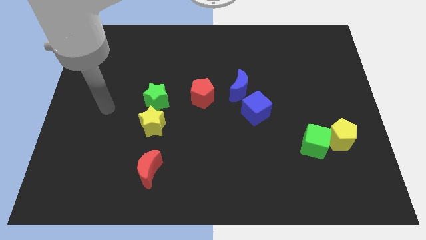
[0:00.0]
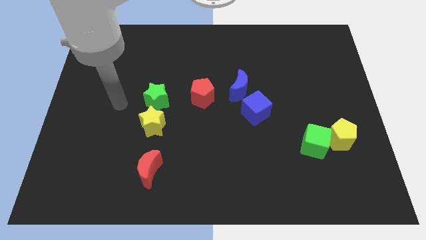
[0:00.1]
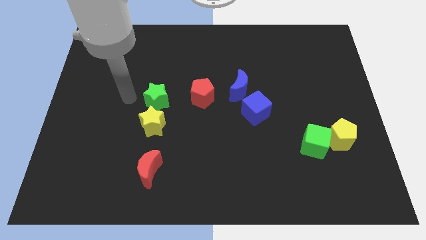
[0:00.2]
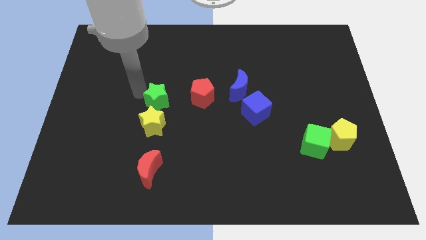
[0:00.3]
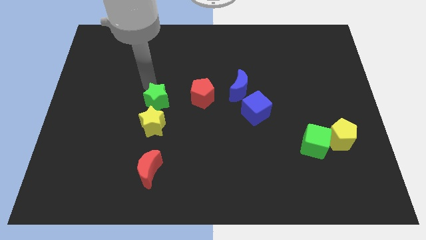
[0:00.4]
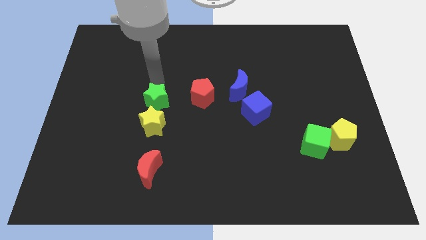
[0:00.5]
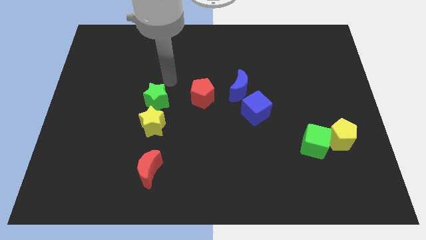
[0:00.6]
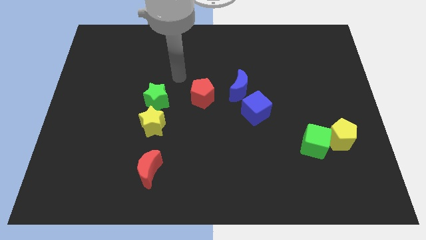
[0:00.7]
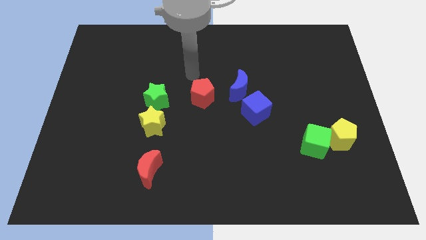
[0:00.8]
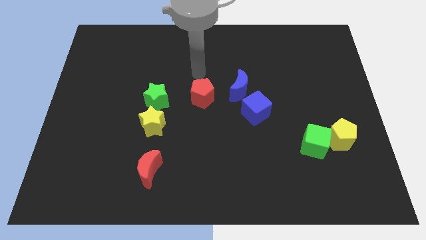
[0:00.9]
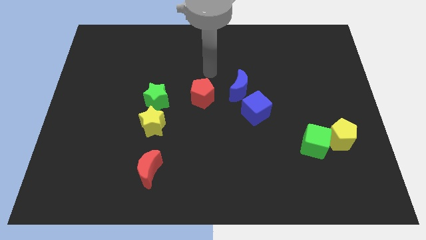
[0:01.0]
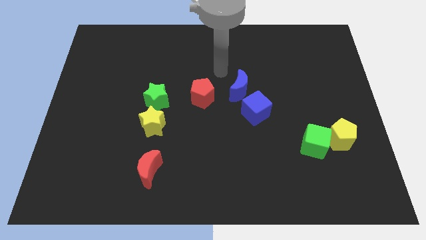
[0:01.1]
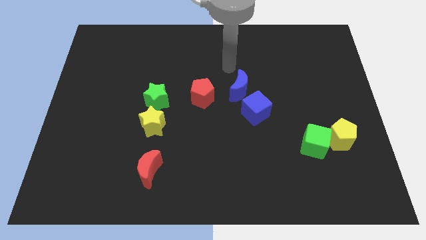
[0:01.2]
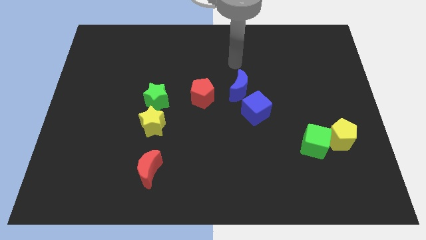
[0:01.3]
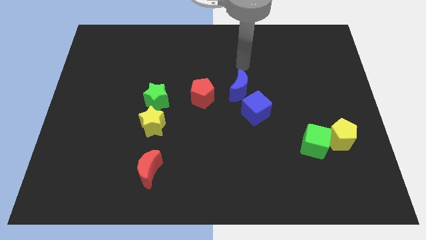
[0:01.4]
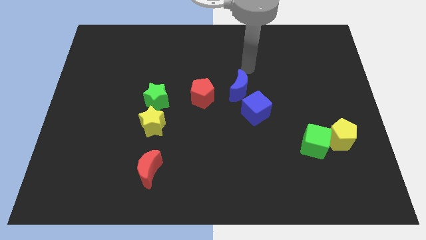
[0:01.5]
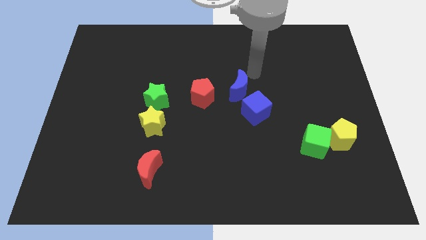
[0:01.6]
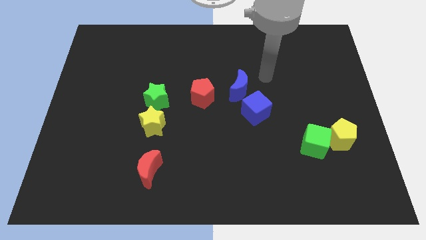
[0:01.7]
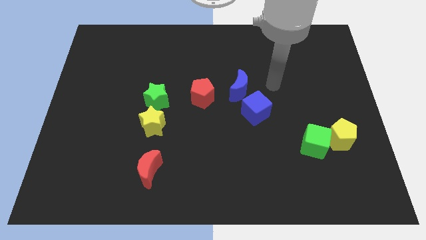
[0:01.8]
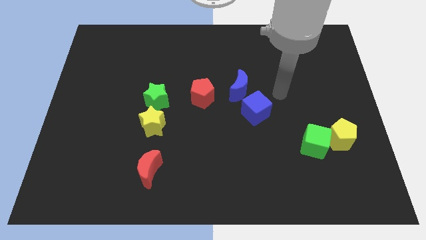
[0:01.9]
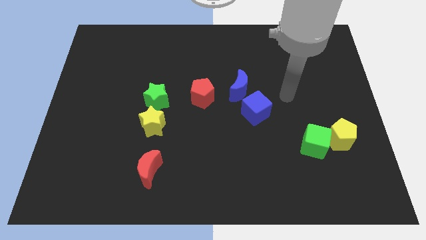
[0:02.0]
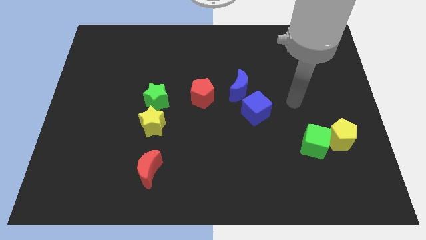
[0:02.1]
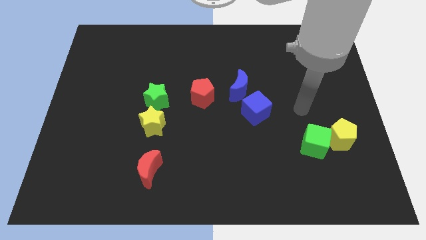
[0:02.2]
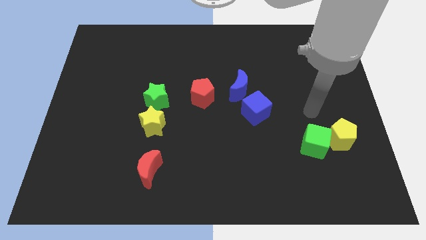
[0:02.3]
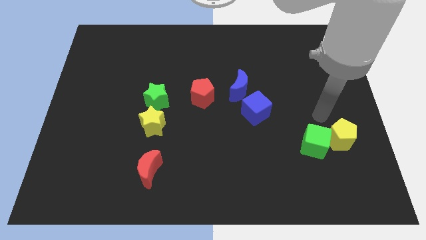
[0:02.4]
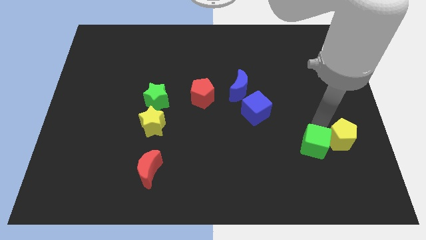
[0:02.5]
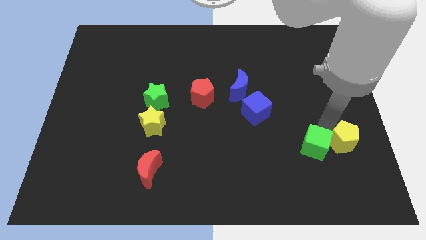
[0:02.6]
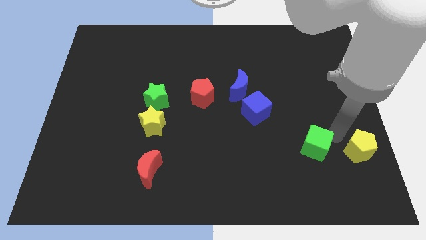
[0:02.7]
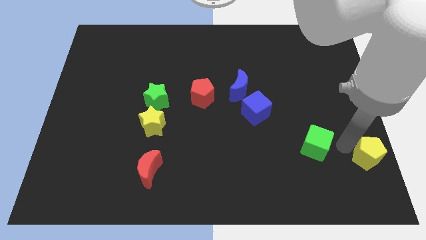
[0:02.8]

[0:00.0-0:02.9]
separate the green cube from the yellow pentagon

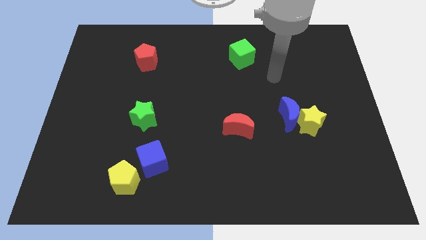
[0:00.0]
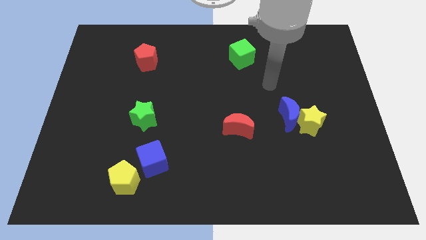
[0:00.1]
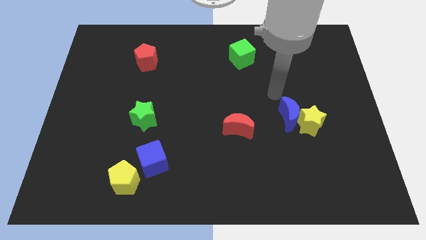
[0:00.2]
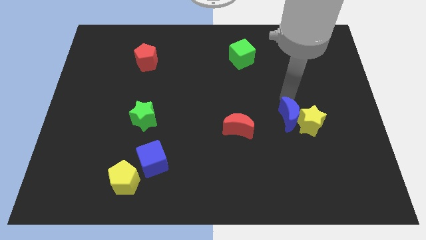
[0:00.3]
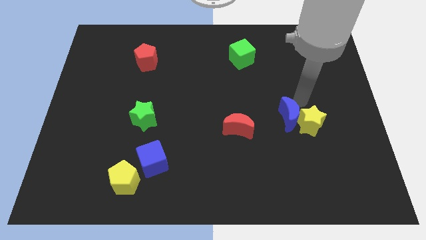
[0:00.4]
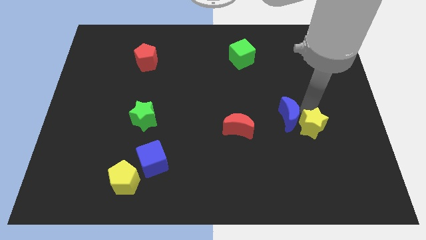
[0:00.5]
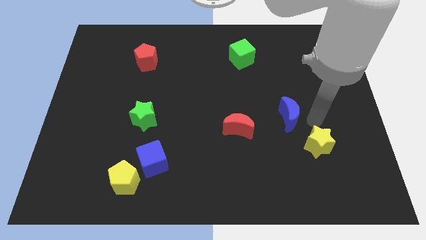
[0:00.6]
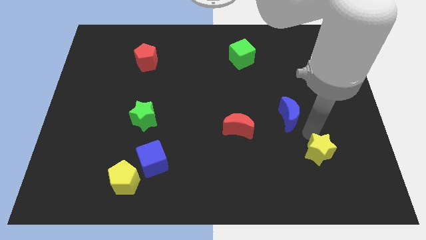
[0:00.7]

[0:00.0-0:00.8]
pull the blue moon apart from the yellow star

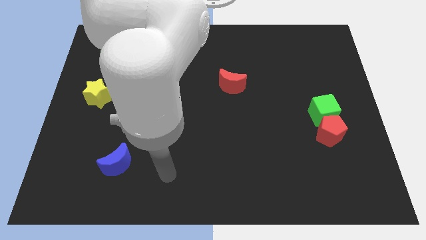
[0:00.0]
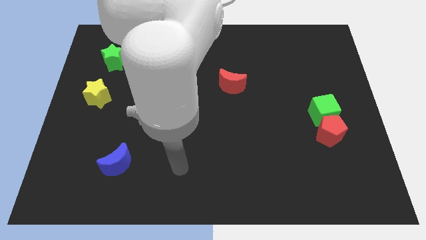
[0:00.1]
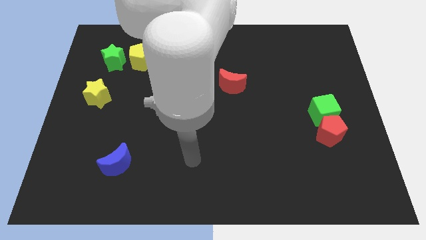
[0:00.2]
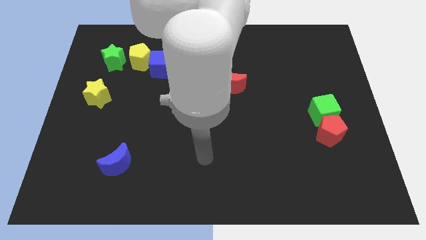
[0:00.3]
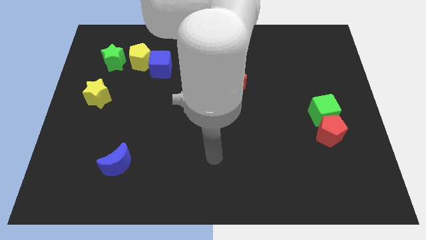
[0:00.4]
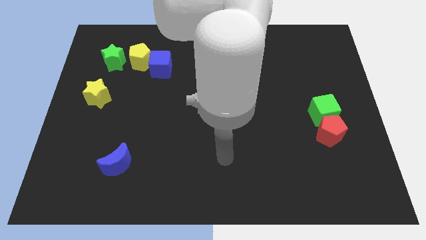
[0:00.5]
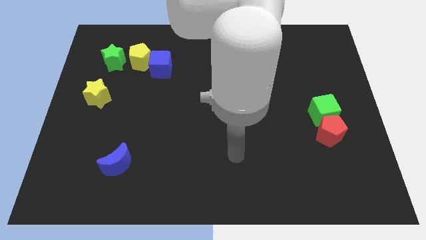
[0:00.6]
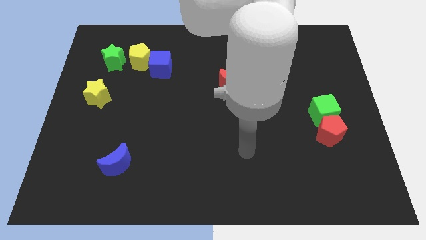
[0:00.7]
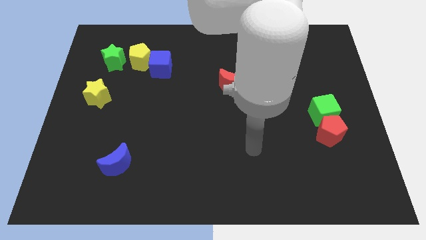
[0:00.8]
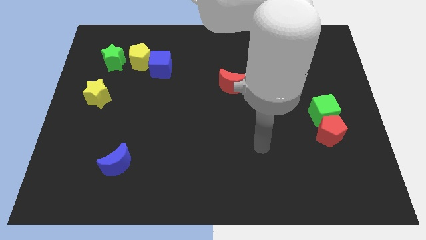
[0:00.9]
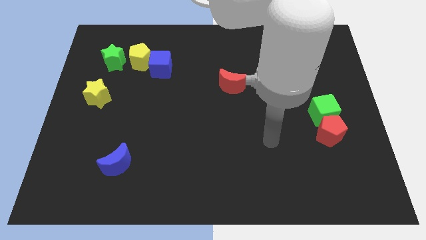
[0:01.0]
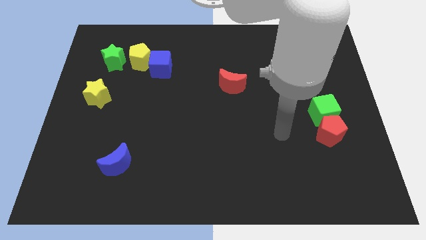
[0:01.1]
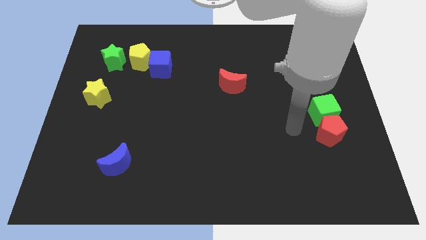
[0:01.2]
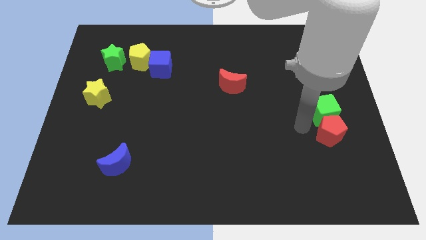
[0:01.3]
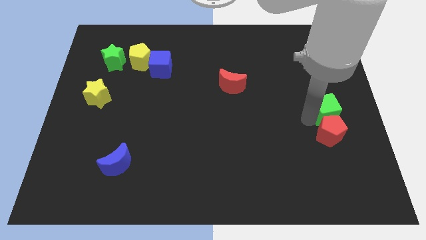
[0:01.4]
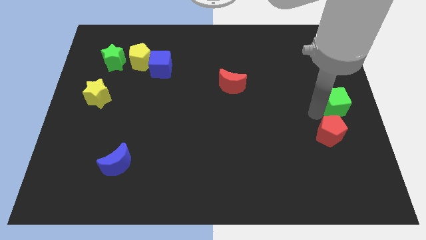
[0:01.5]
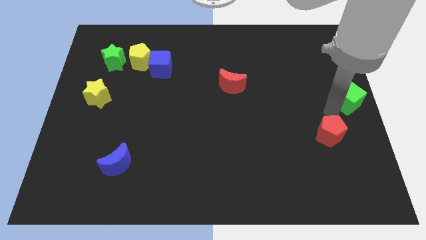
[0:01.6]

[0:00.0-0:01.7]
separate the red pentagon from the green cube

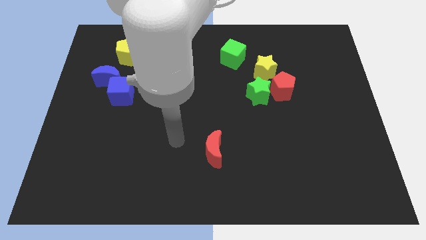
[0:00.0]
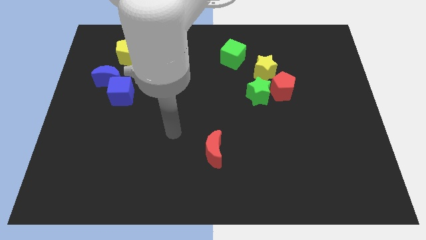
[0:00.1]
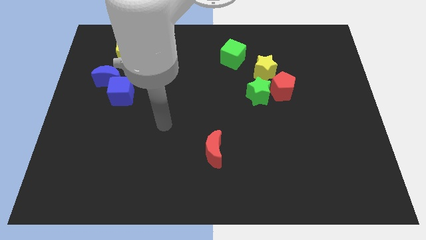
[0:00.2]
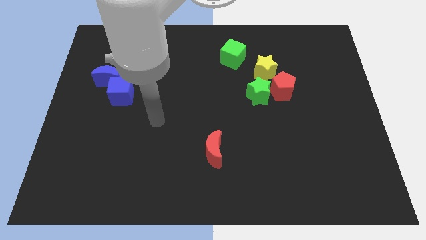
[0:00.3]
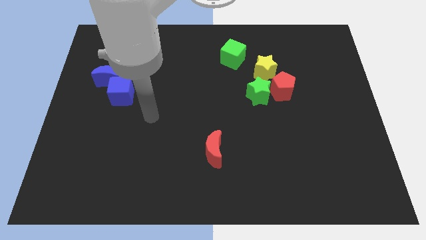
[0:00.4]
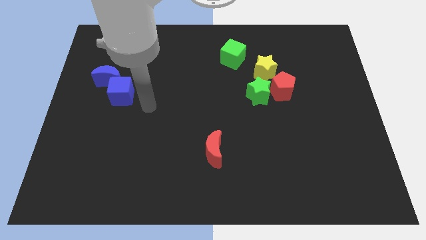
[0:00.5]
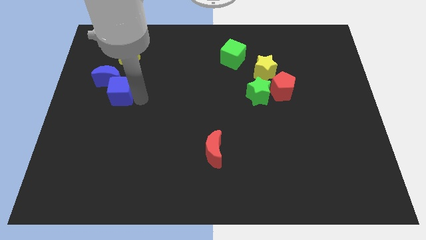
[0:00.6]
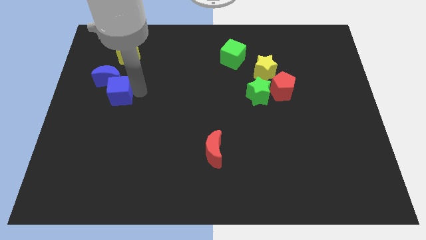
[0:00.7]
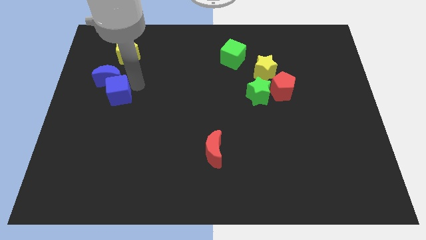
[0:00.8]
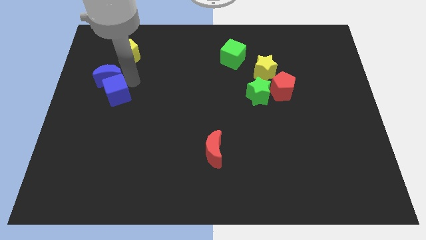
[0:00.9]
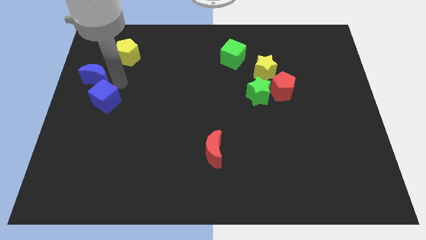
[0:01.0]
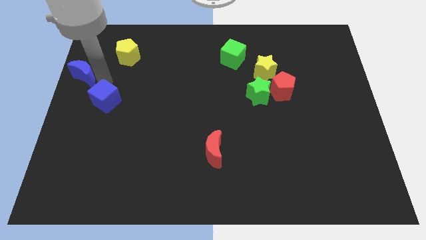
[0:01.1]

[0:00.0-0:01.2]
separate the blue cube from the blue moon

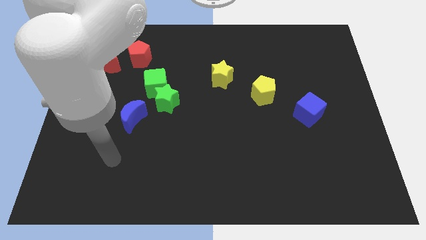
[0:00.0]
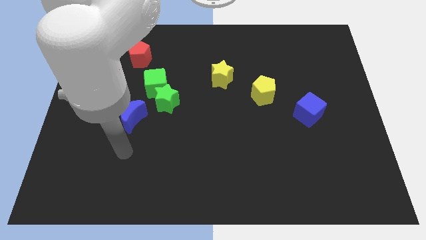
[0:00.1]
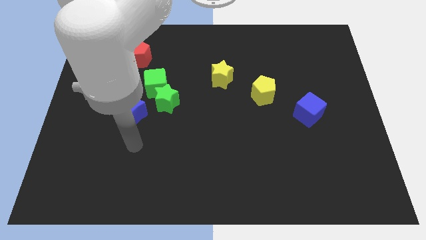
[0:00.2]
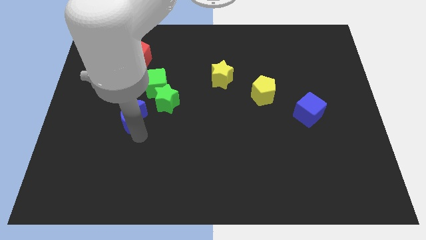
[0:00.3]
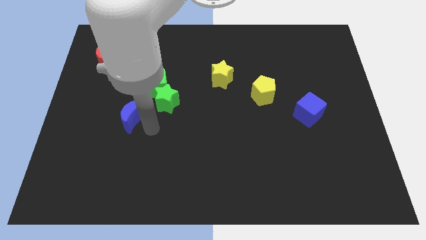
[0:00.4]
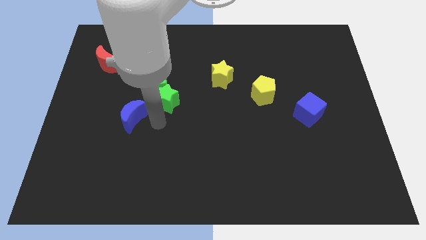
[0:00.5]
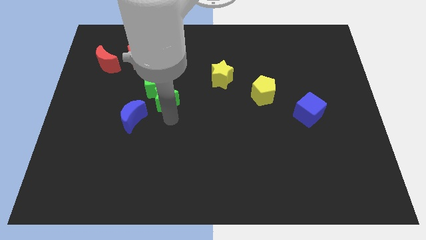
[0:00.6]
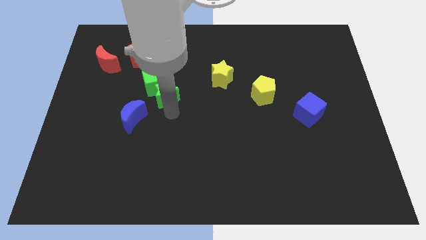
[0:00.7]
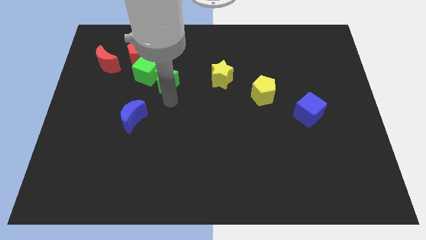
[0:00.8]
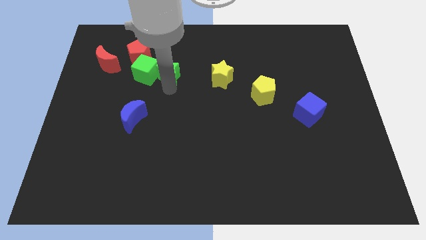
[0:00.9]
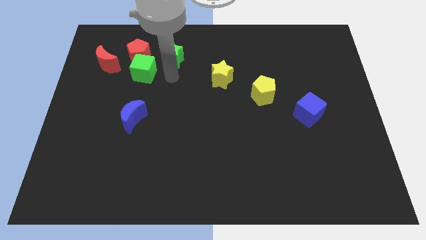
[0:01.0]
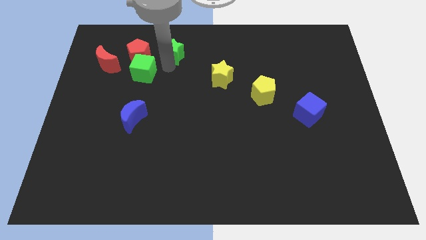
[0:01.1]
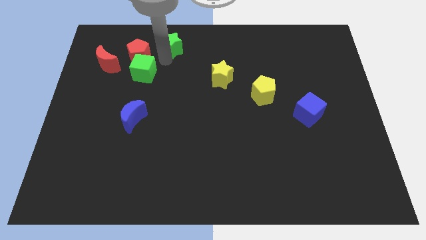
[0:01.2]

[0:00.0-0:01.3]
move the green cube away from the green star

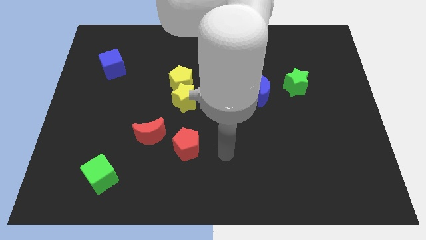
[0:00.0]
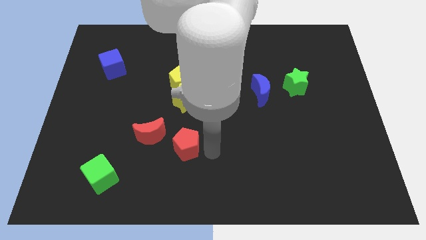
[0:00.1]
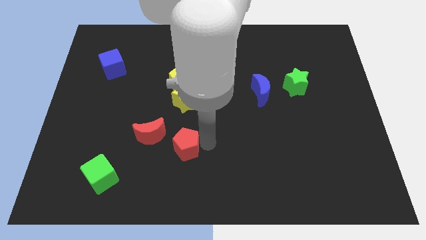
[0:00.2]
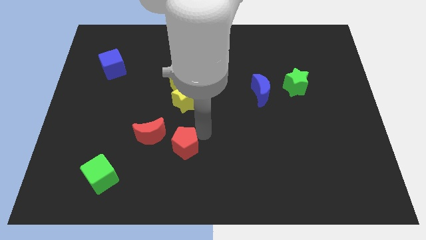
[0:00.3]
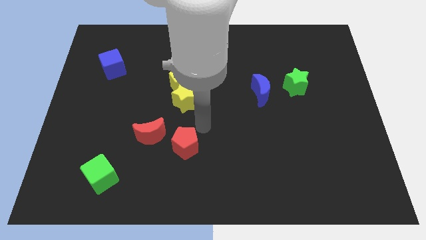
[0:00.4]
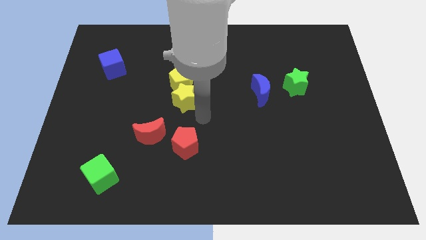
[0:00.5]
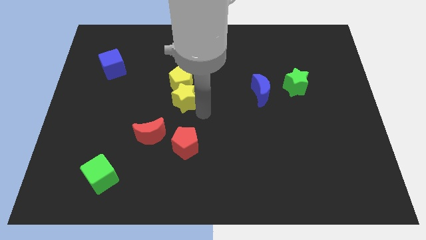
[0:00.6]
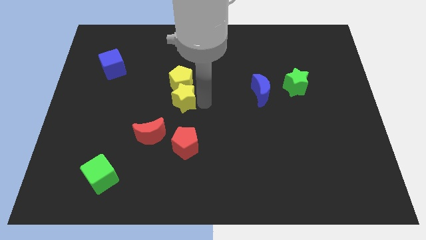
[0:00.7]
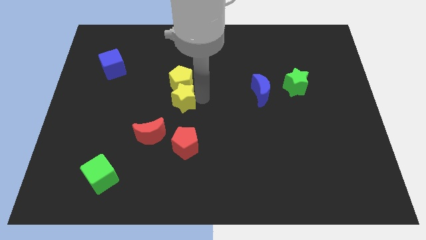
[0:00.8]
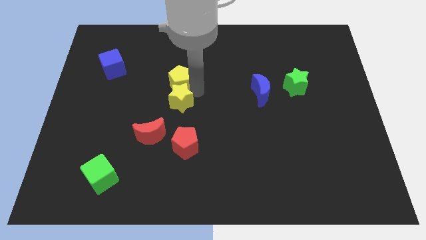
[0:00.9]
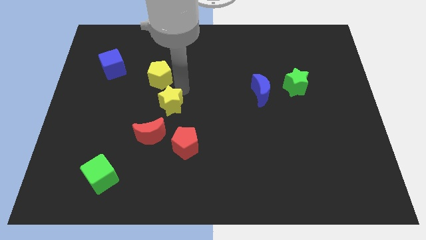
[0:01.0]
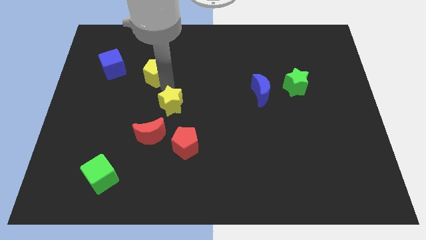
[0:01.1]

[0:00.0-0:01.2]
separate the yellow star from the yellow pentagon

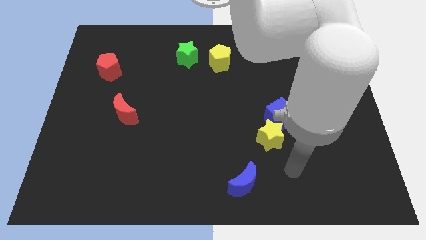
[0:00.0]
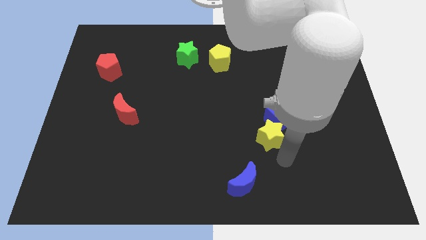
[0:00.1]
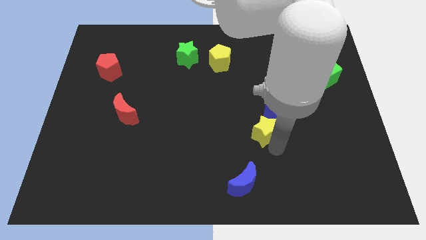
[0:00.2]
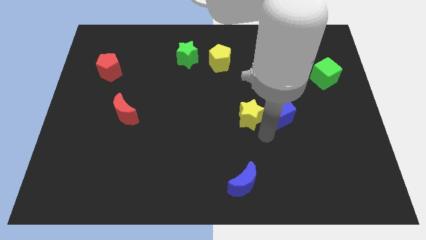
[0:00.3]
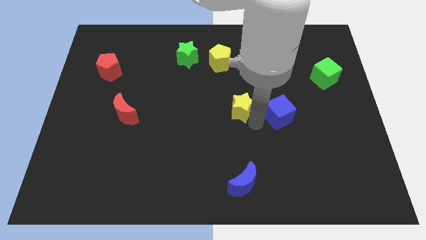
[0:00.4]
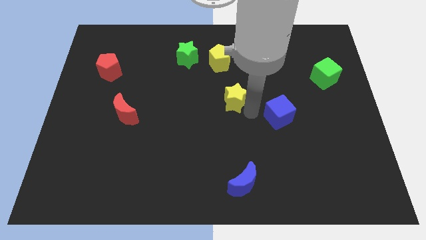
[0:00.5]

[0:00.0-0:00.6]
pull the blue cube apart from the yellow star
